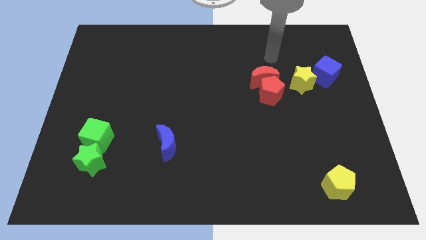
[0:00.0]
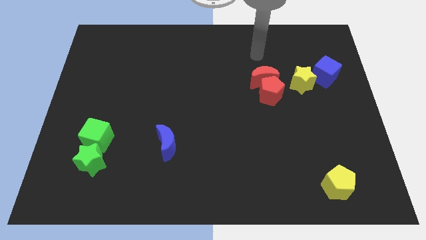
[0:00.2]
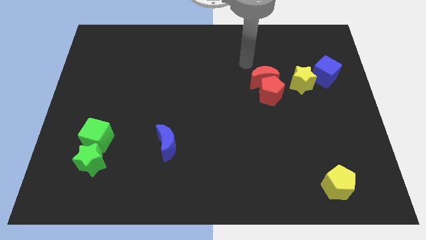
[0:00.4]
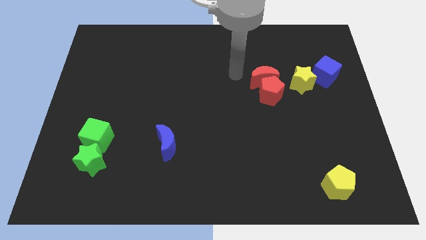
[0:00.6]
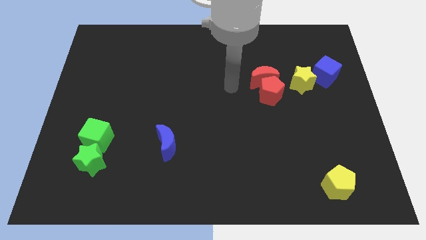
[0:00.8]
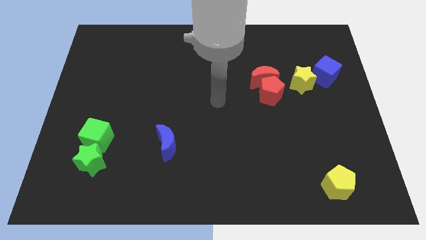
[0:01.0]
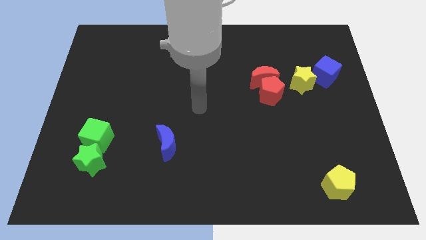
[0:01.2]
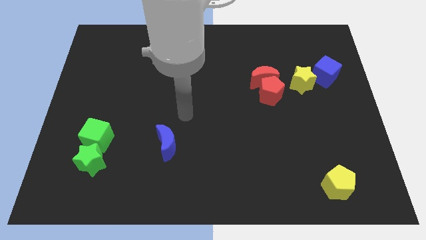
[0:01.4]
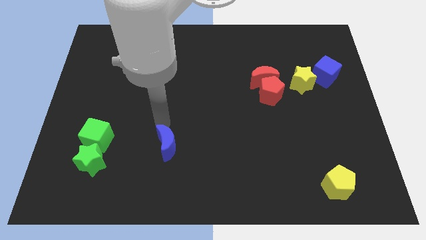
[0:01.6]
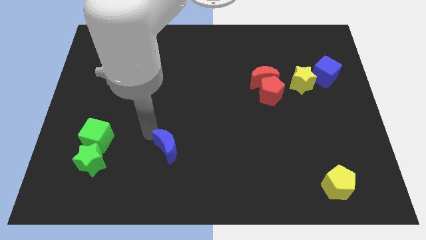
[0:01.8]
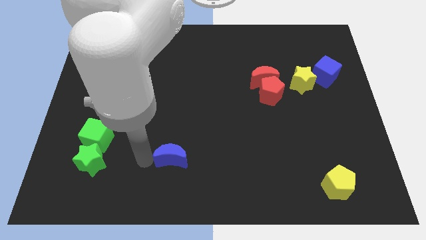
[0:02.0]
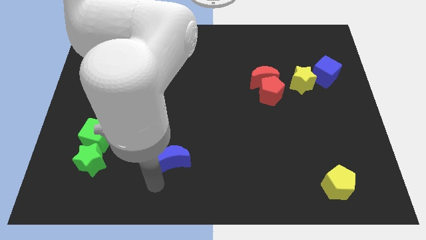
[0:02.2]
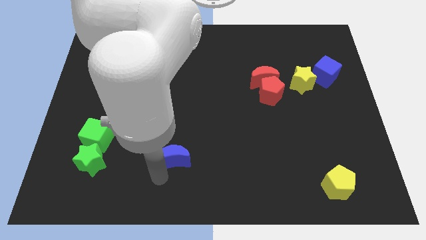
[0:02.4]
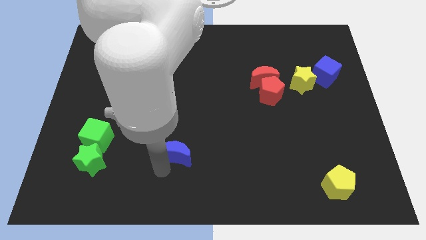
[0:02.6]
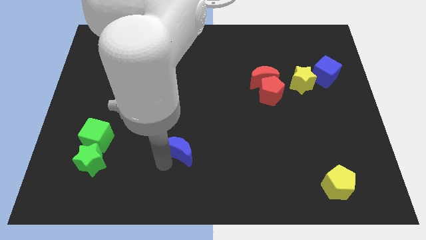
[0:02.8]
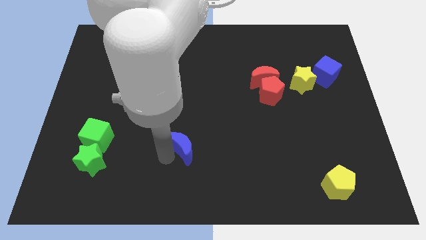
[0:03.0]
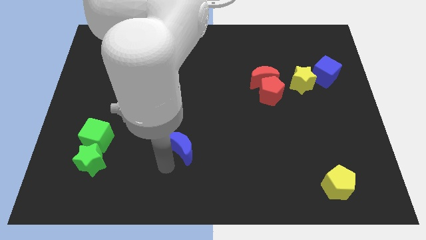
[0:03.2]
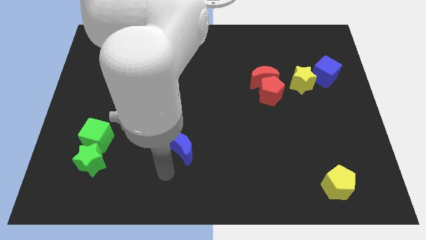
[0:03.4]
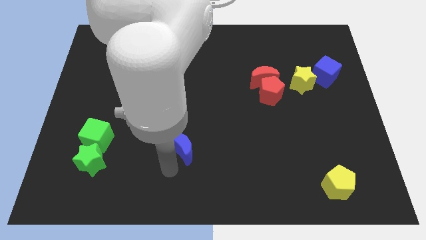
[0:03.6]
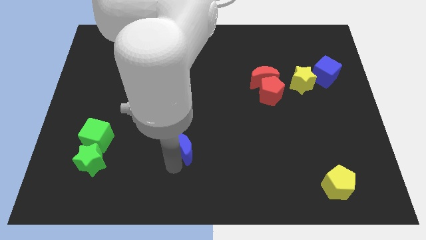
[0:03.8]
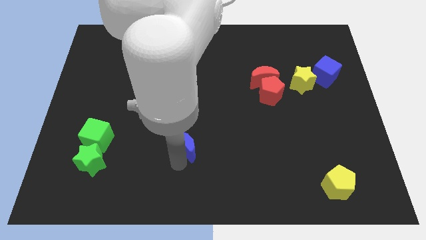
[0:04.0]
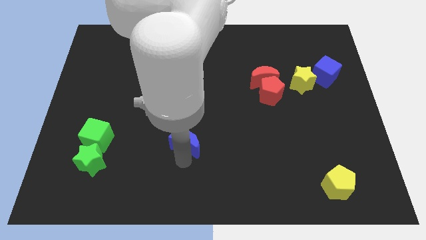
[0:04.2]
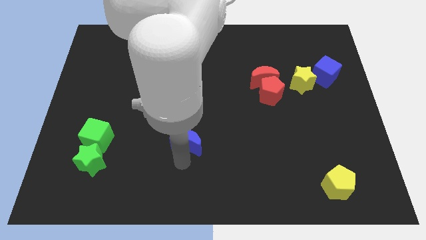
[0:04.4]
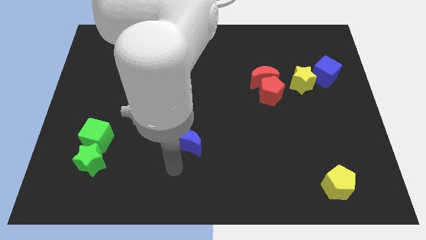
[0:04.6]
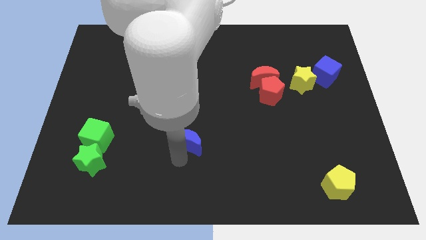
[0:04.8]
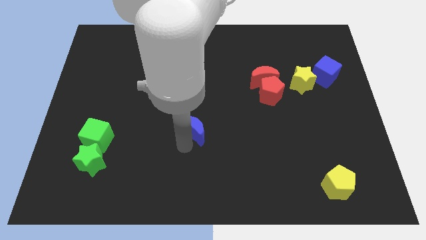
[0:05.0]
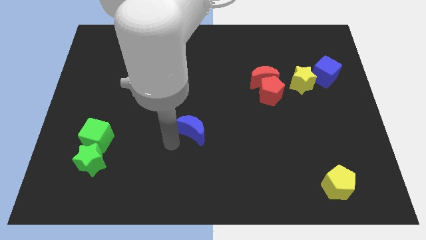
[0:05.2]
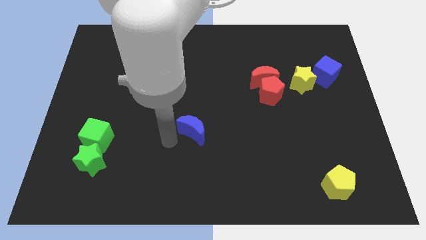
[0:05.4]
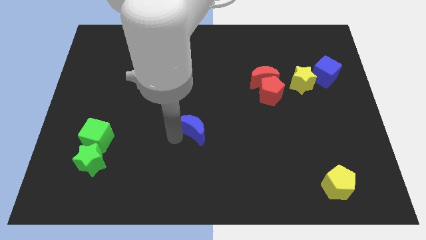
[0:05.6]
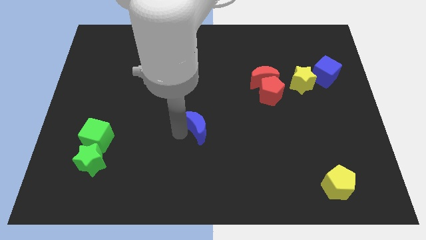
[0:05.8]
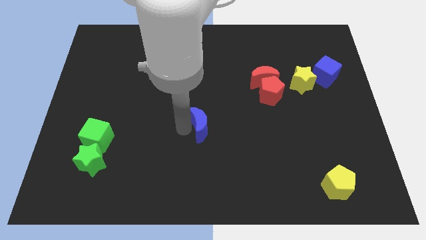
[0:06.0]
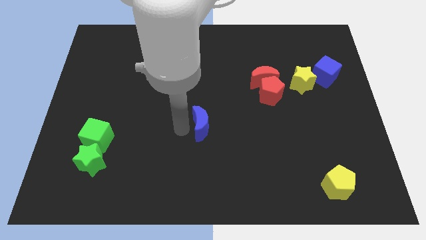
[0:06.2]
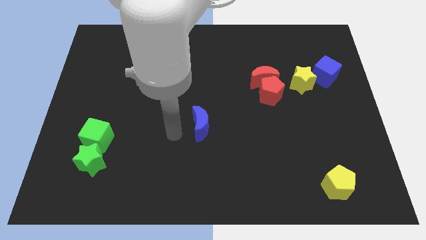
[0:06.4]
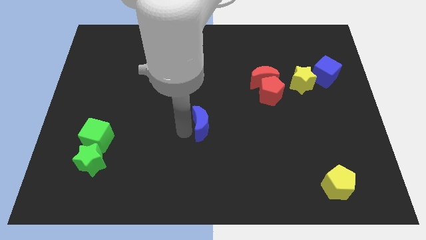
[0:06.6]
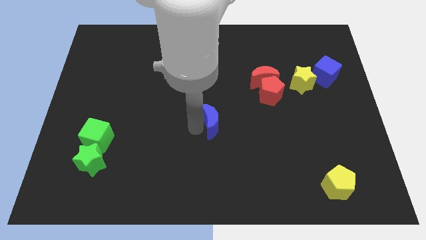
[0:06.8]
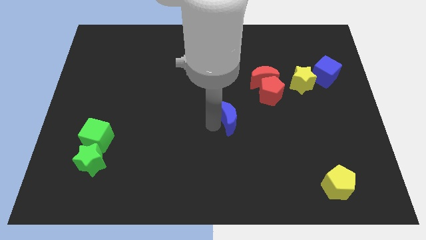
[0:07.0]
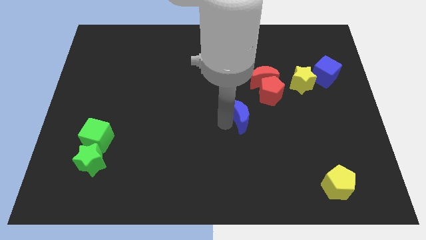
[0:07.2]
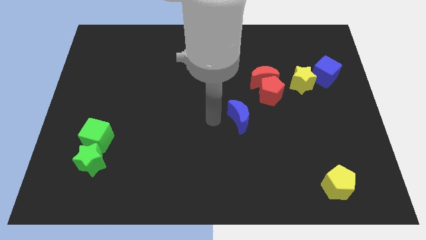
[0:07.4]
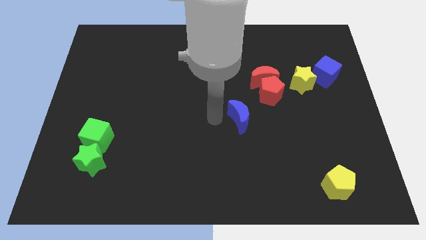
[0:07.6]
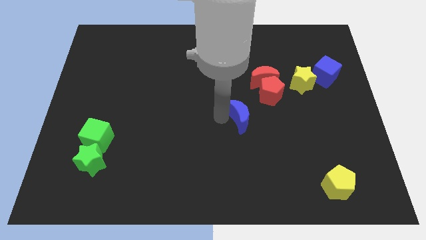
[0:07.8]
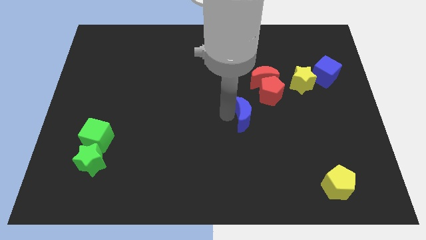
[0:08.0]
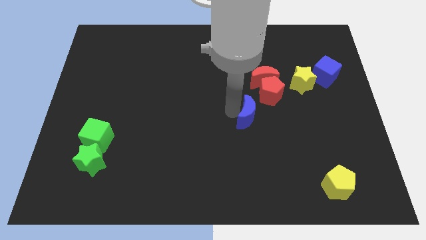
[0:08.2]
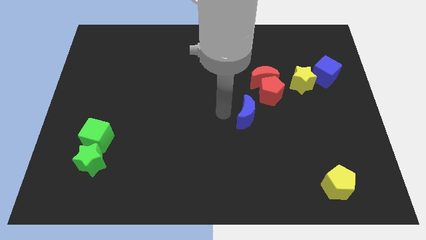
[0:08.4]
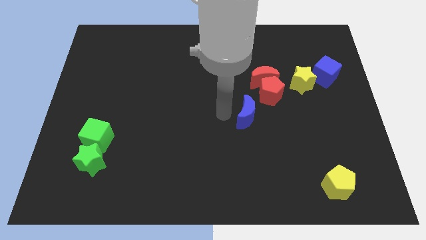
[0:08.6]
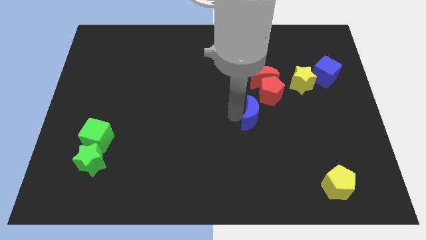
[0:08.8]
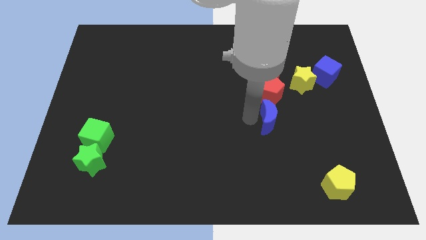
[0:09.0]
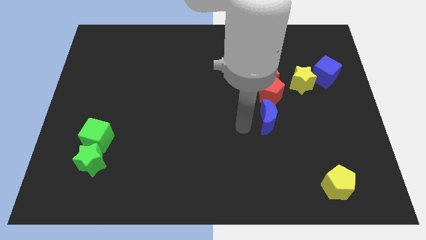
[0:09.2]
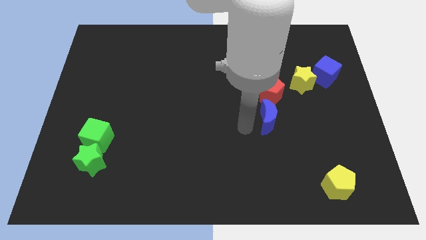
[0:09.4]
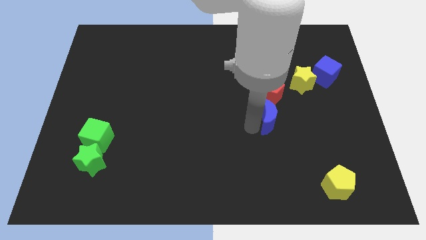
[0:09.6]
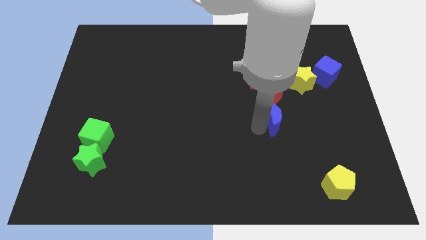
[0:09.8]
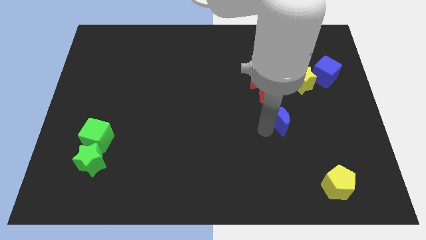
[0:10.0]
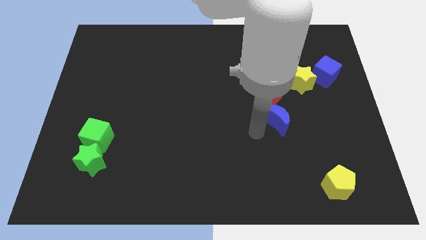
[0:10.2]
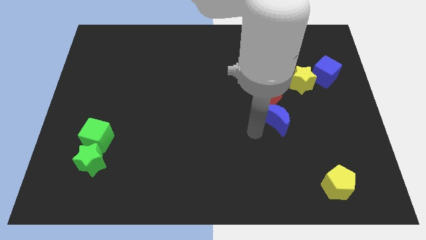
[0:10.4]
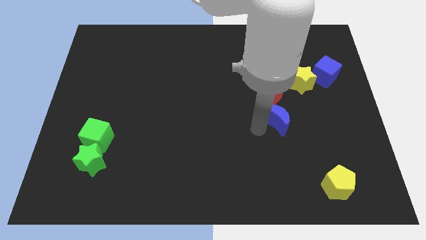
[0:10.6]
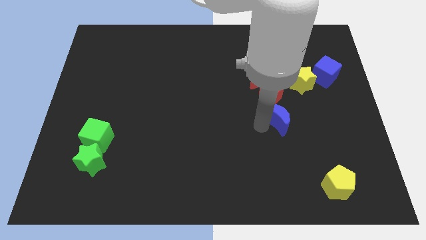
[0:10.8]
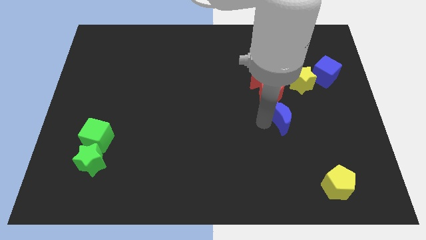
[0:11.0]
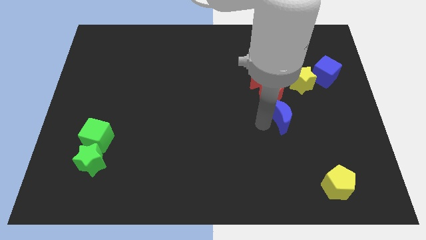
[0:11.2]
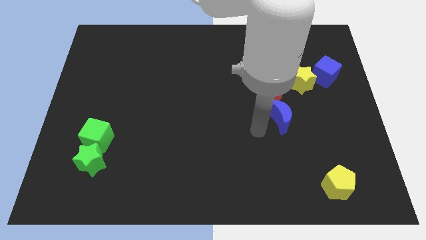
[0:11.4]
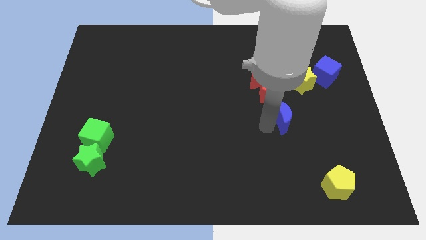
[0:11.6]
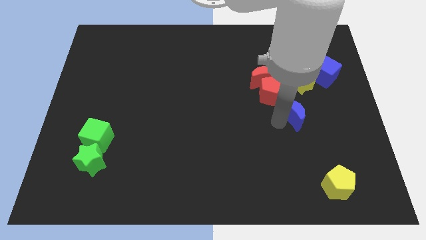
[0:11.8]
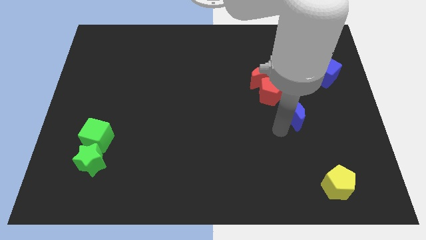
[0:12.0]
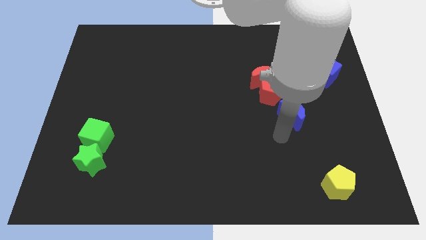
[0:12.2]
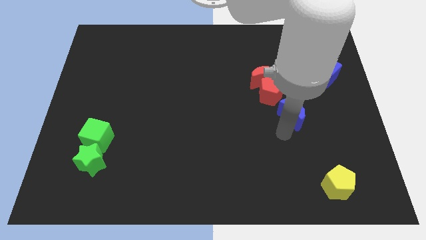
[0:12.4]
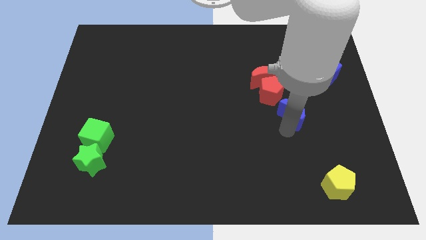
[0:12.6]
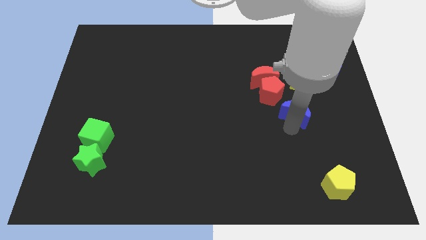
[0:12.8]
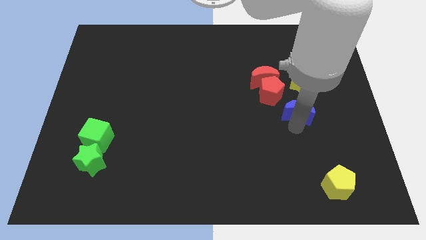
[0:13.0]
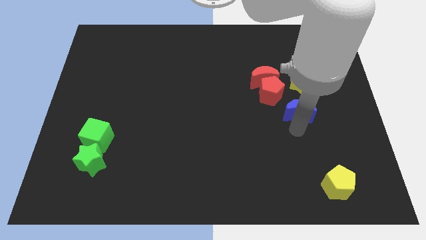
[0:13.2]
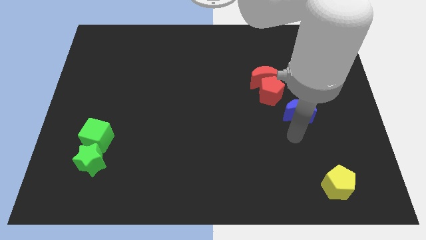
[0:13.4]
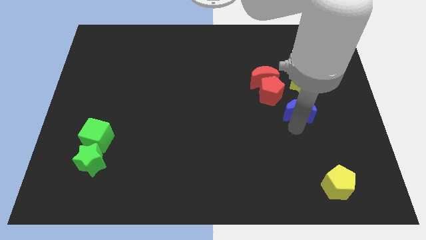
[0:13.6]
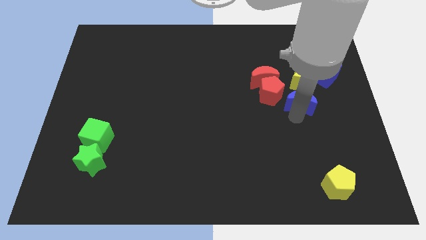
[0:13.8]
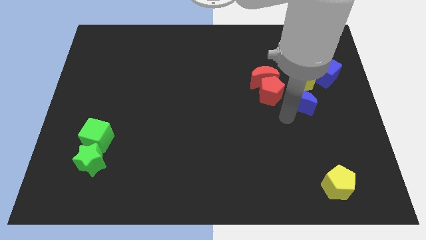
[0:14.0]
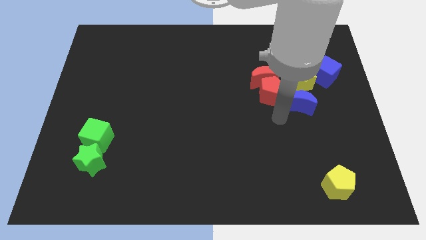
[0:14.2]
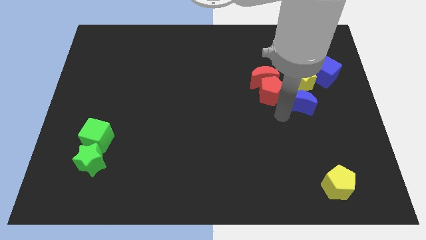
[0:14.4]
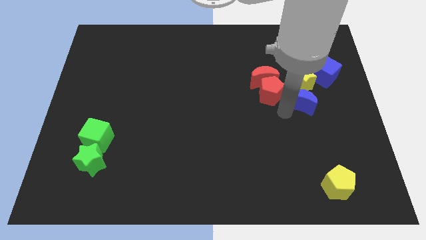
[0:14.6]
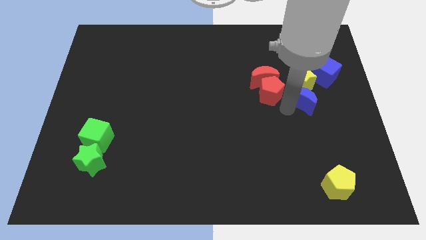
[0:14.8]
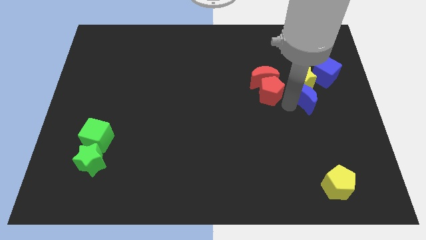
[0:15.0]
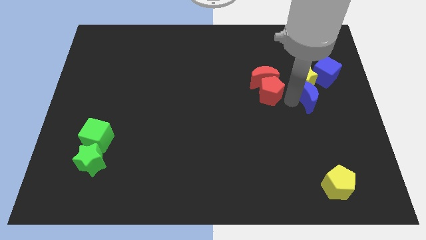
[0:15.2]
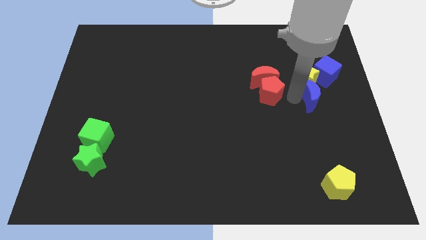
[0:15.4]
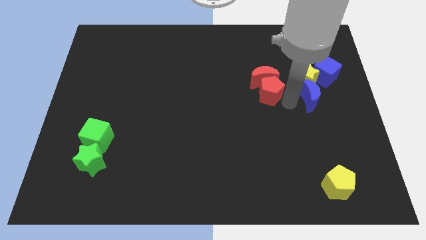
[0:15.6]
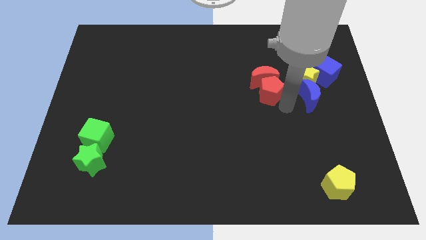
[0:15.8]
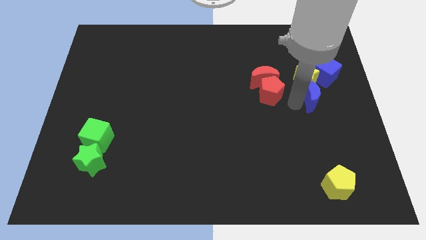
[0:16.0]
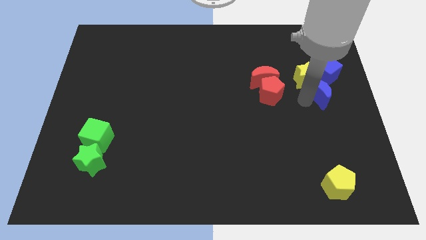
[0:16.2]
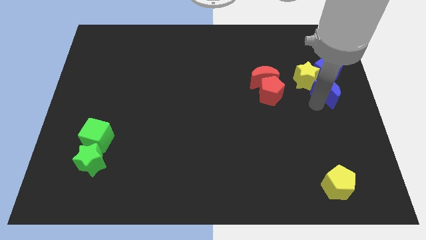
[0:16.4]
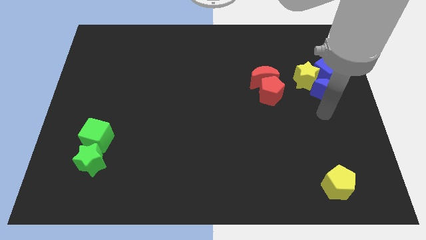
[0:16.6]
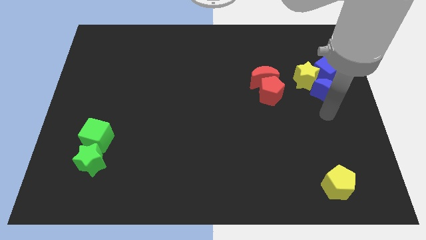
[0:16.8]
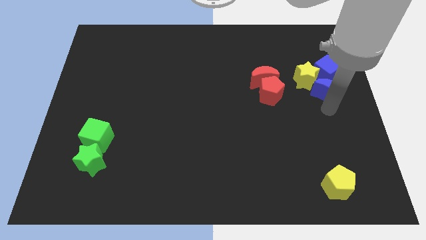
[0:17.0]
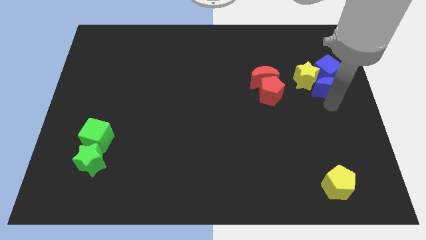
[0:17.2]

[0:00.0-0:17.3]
put the blue moon next to the blue cube
